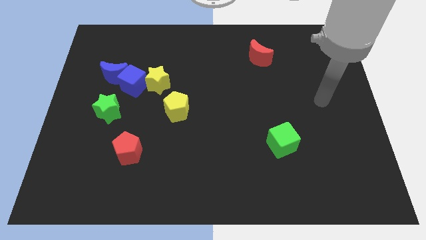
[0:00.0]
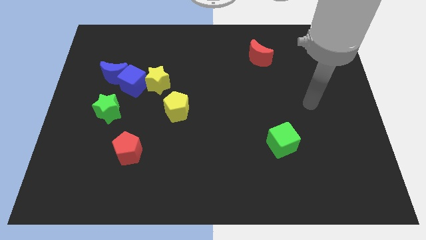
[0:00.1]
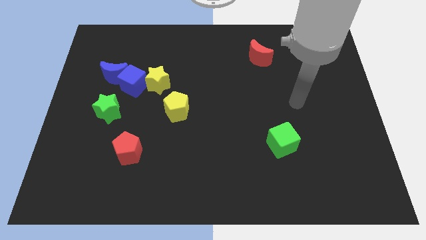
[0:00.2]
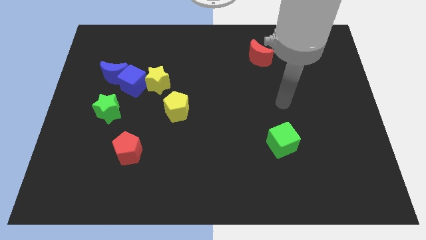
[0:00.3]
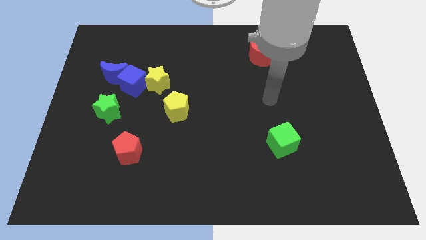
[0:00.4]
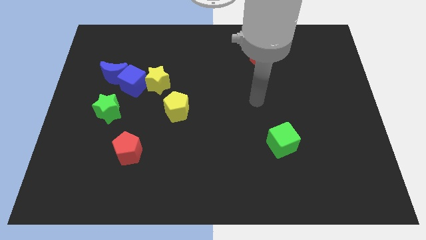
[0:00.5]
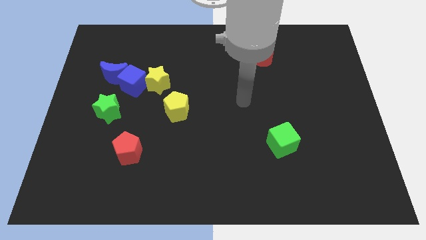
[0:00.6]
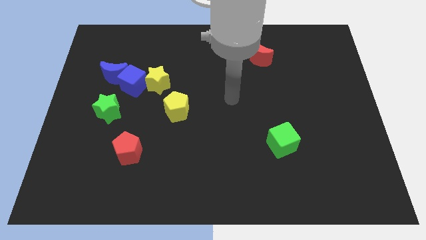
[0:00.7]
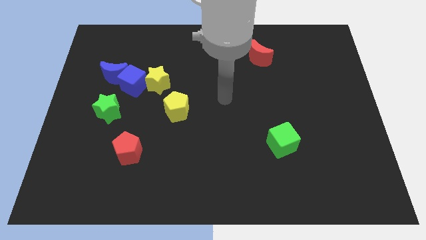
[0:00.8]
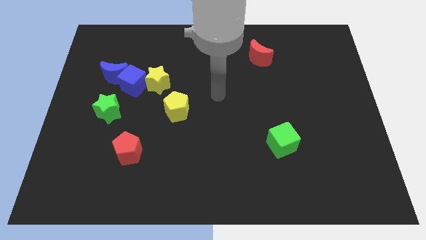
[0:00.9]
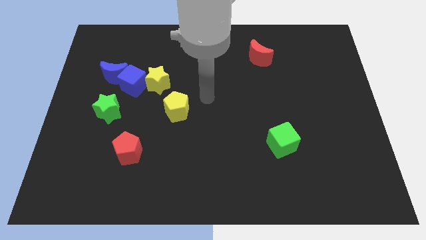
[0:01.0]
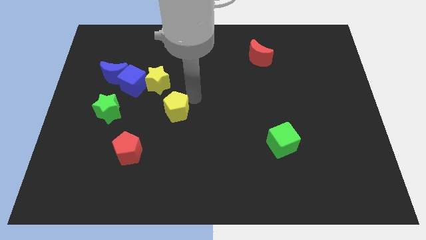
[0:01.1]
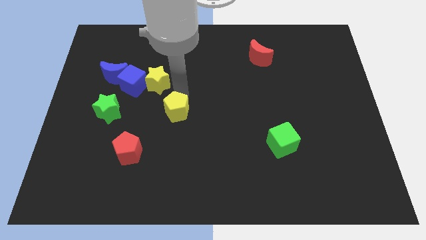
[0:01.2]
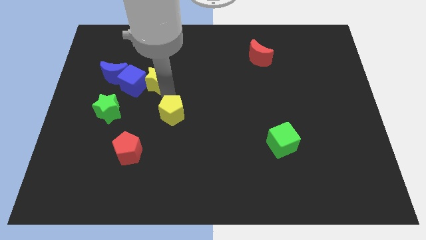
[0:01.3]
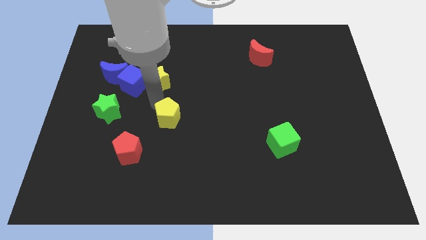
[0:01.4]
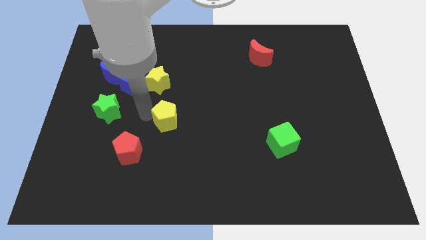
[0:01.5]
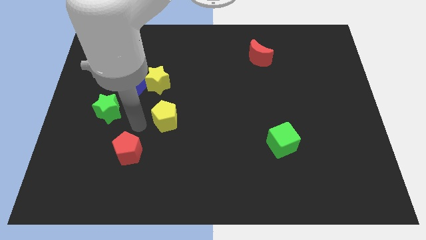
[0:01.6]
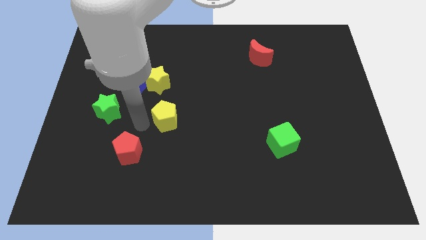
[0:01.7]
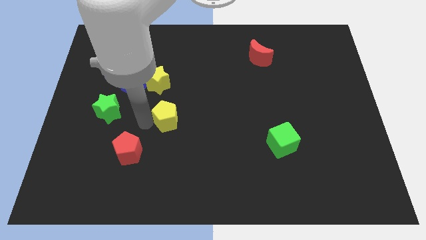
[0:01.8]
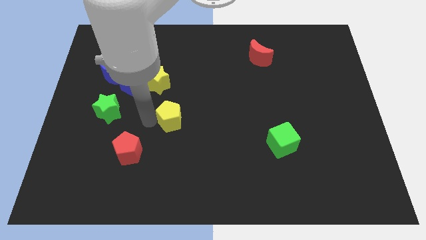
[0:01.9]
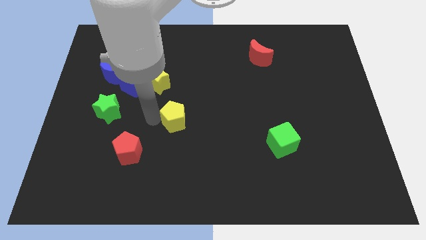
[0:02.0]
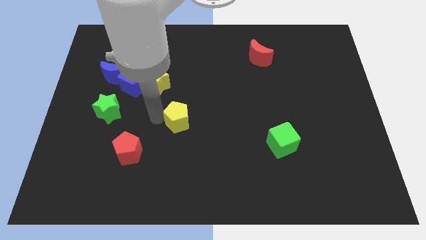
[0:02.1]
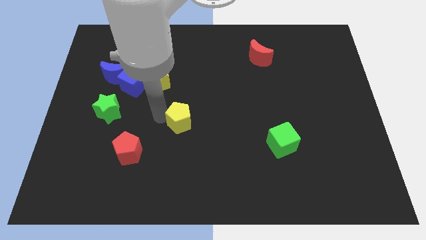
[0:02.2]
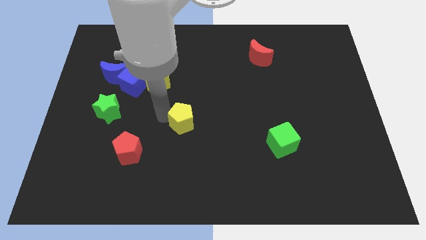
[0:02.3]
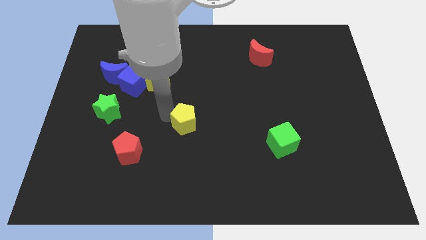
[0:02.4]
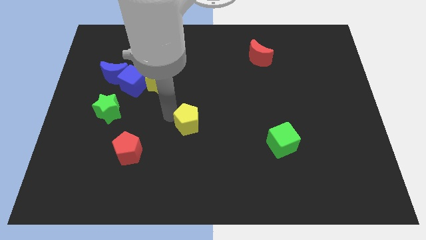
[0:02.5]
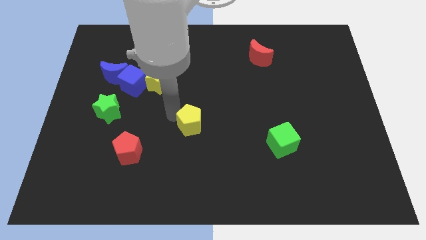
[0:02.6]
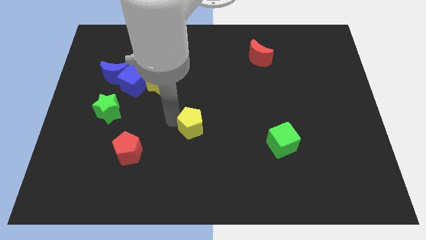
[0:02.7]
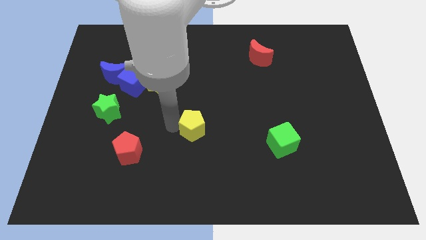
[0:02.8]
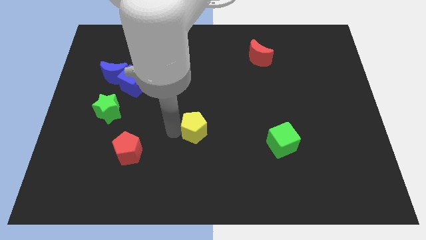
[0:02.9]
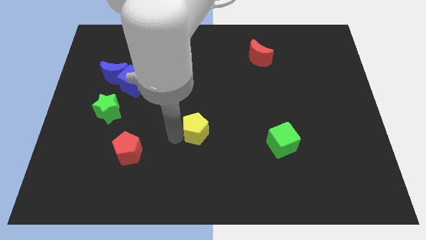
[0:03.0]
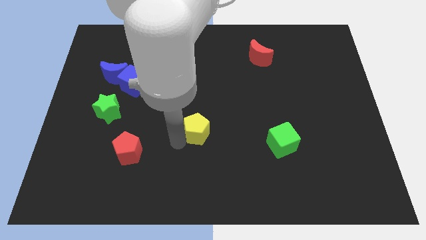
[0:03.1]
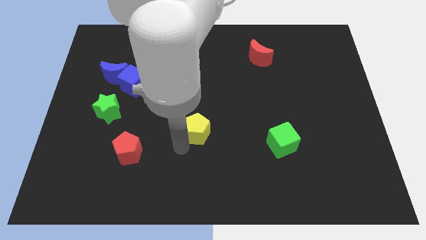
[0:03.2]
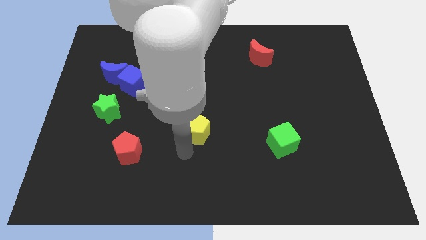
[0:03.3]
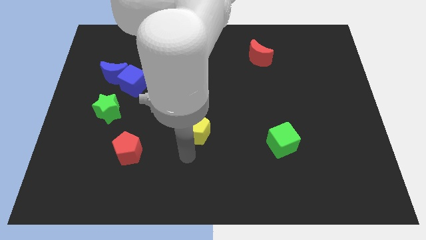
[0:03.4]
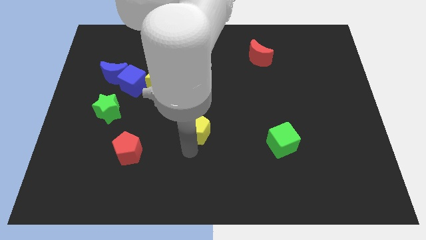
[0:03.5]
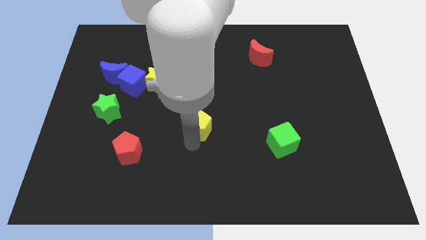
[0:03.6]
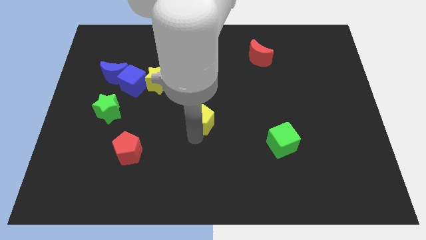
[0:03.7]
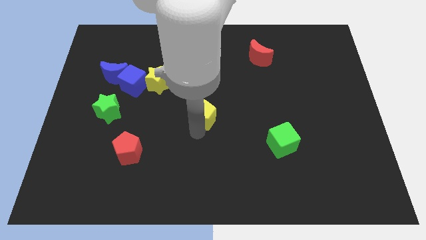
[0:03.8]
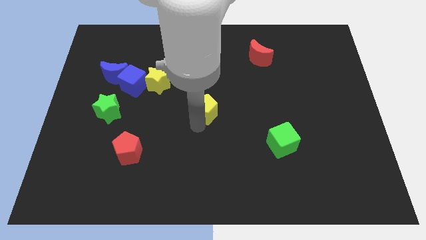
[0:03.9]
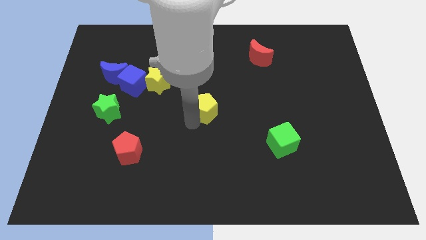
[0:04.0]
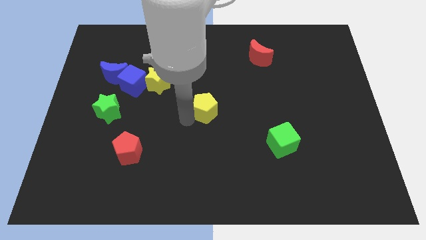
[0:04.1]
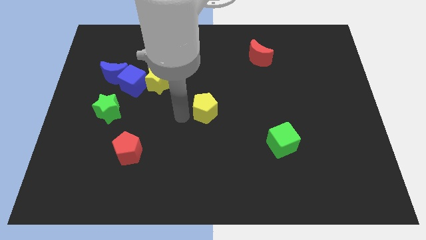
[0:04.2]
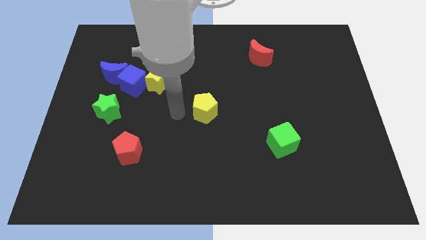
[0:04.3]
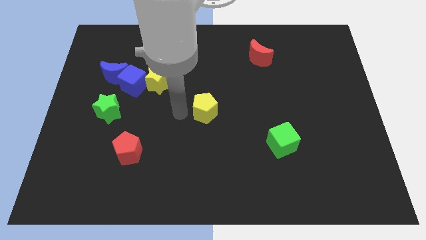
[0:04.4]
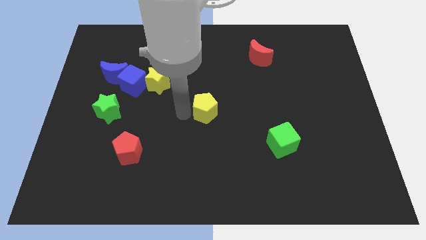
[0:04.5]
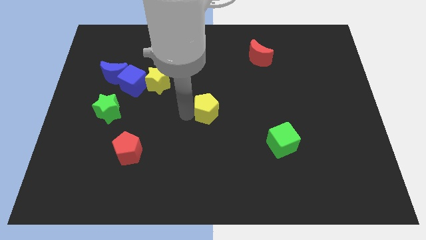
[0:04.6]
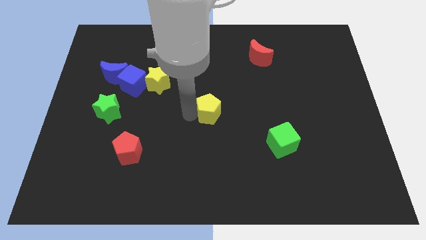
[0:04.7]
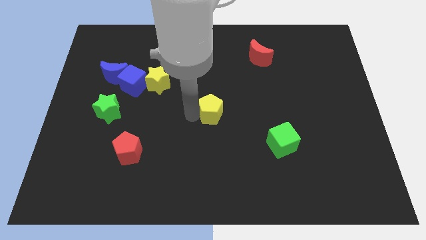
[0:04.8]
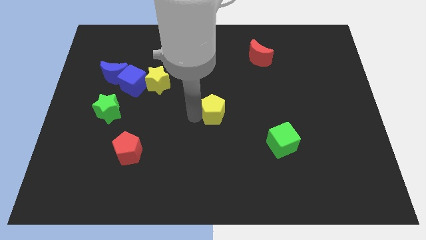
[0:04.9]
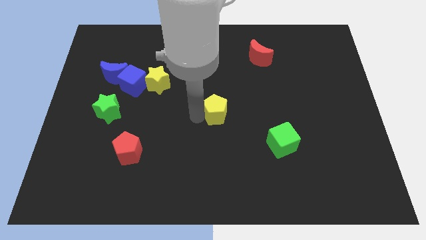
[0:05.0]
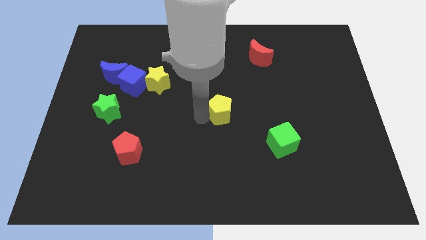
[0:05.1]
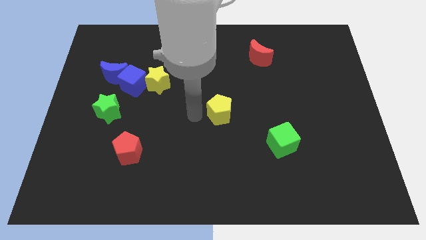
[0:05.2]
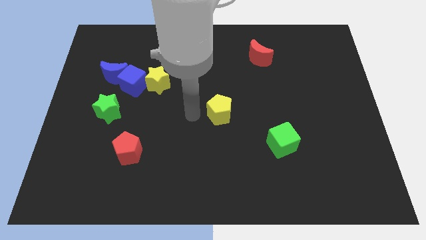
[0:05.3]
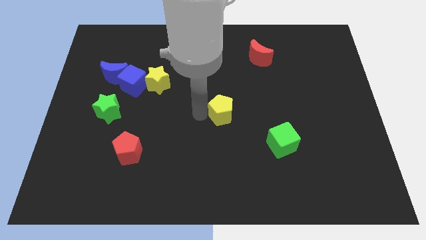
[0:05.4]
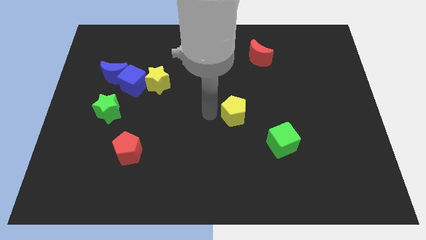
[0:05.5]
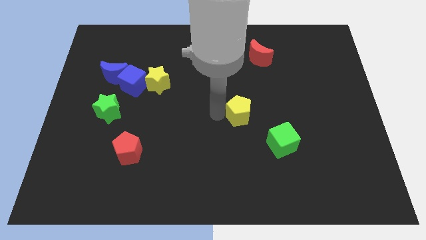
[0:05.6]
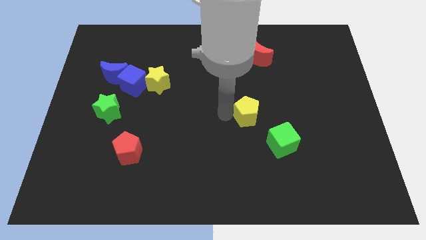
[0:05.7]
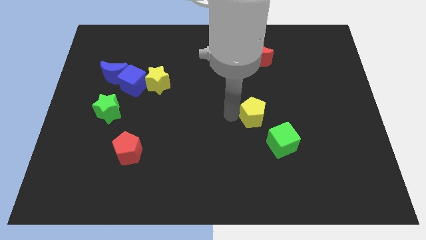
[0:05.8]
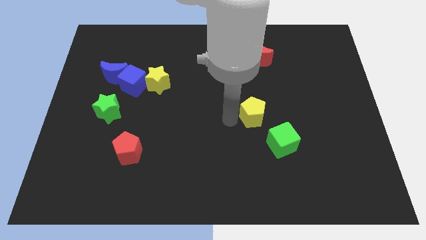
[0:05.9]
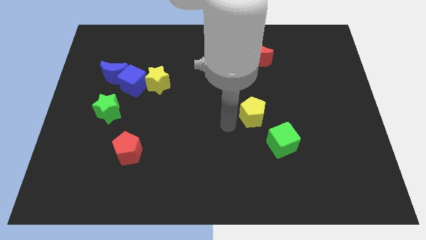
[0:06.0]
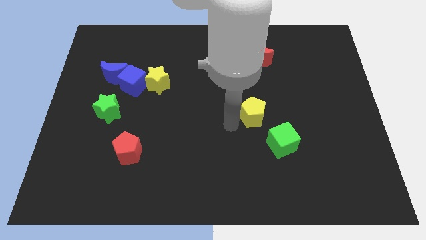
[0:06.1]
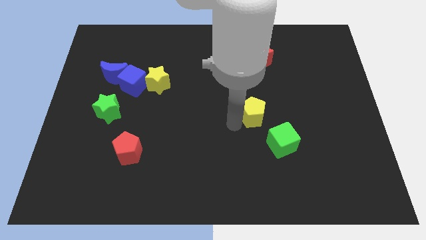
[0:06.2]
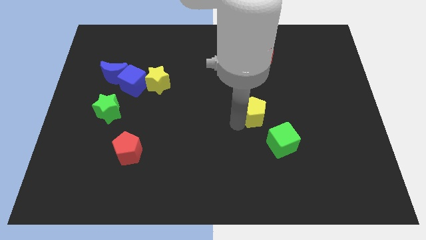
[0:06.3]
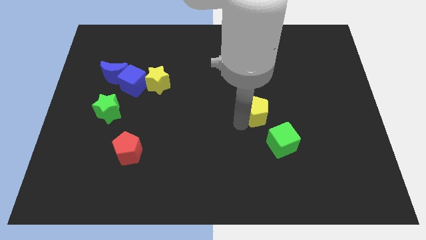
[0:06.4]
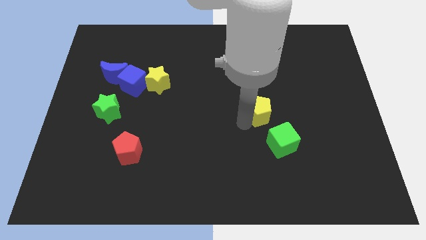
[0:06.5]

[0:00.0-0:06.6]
move the yellow pentagon above the green cube

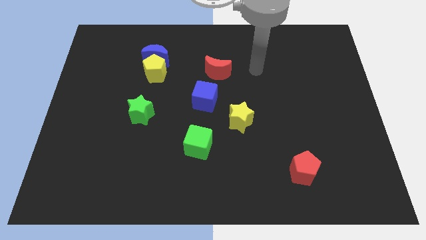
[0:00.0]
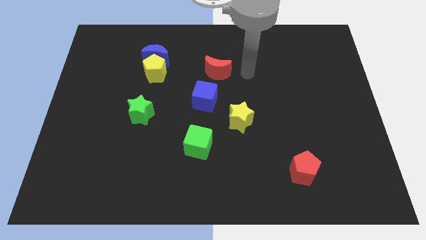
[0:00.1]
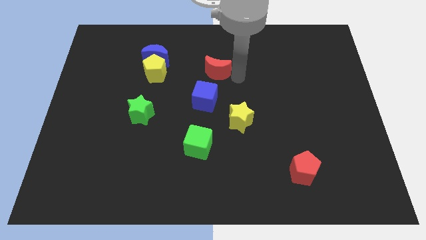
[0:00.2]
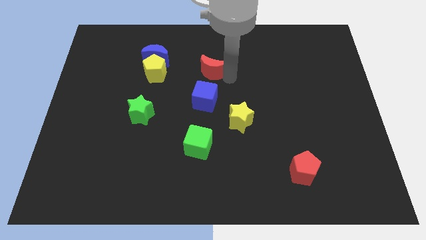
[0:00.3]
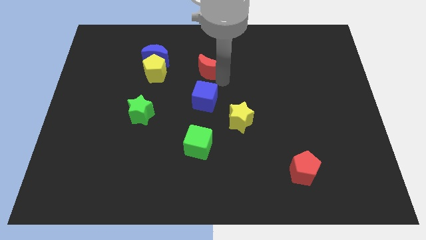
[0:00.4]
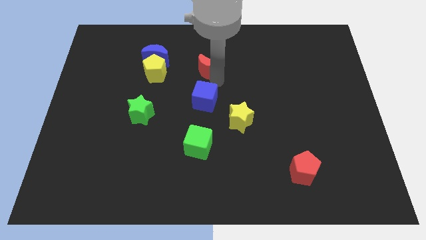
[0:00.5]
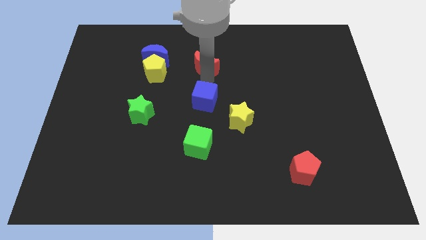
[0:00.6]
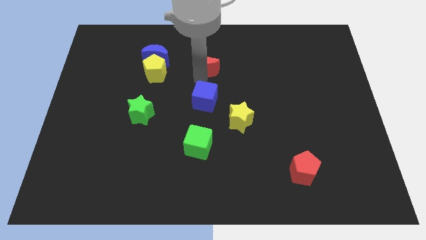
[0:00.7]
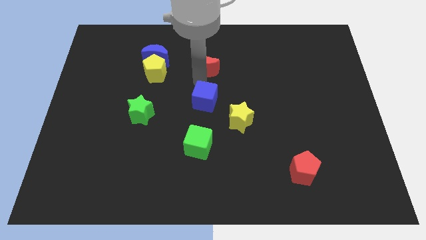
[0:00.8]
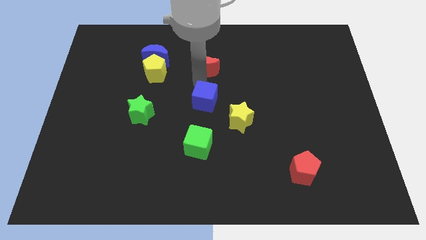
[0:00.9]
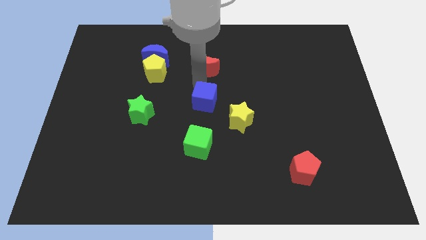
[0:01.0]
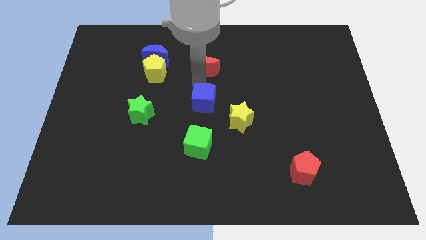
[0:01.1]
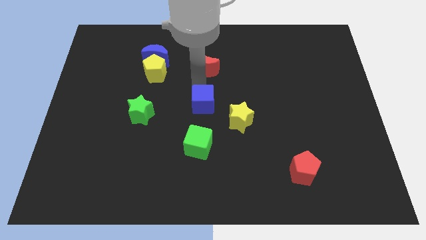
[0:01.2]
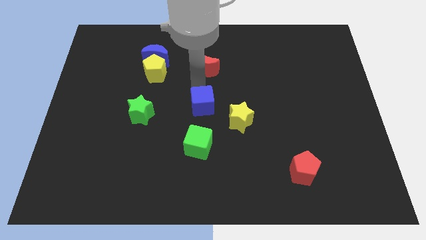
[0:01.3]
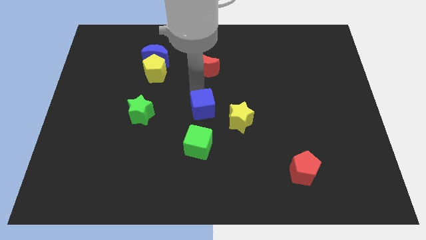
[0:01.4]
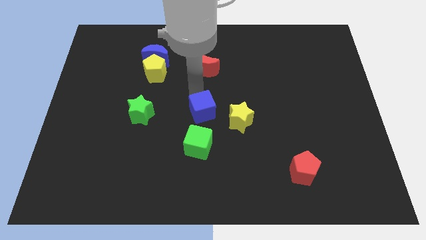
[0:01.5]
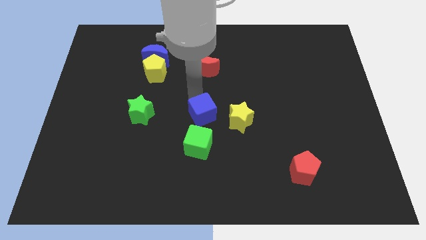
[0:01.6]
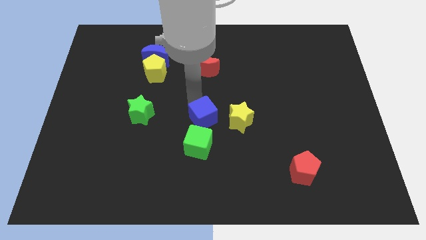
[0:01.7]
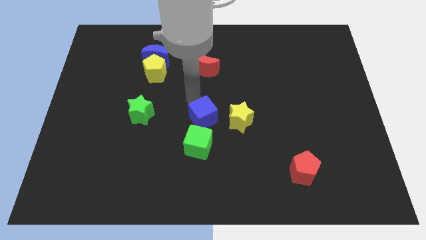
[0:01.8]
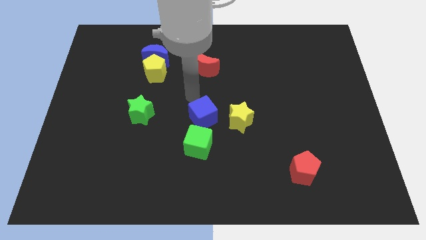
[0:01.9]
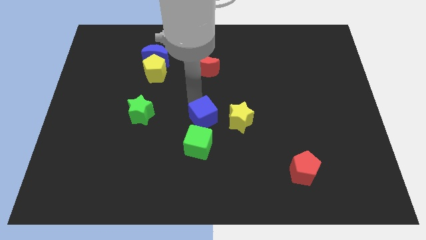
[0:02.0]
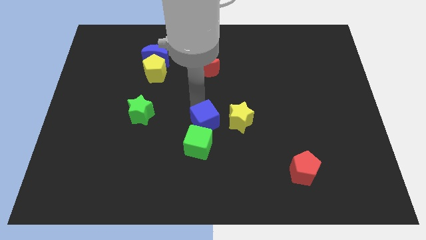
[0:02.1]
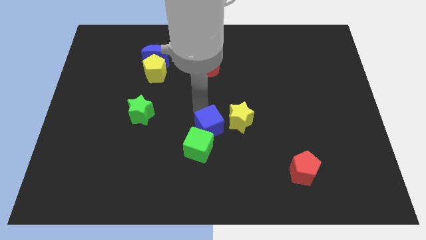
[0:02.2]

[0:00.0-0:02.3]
put the blue cube to the bottom left side of the yellow star
